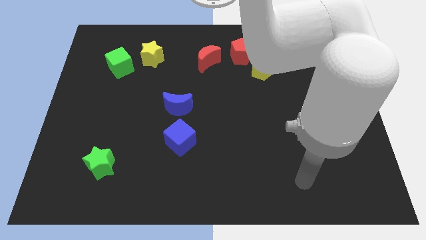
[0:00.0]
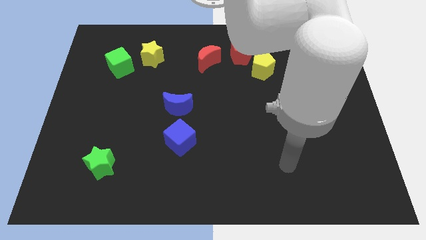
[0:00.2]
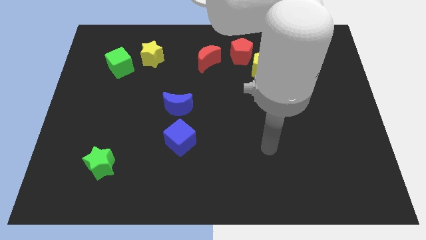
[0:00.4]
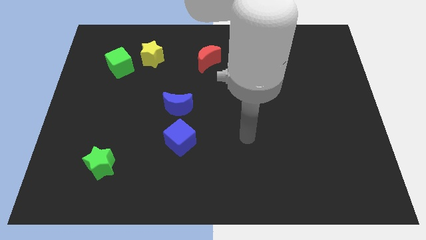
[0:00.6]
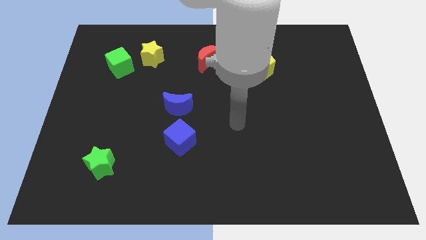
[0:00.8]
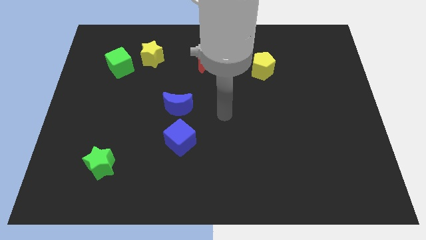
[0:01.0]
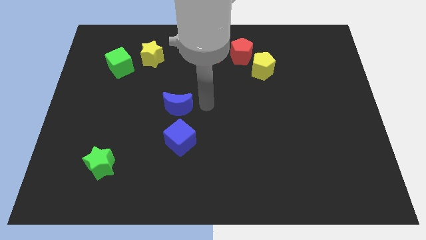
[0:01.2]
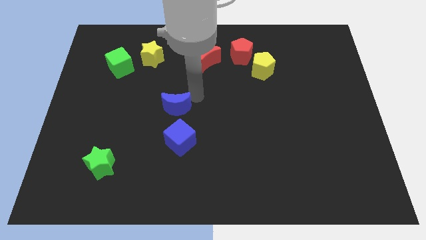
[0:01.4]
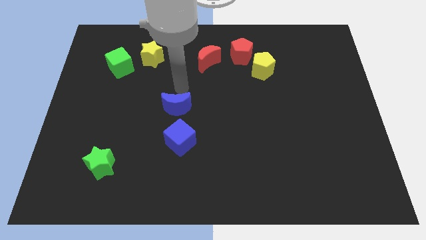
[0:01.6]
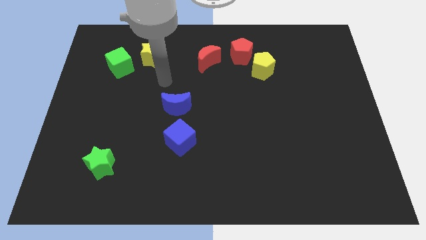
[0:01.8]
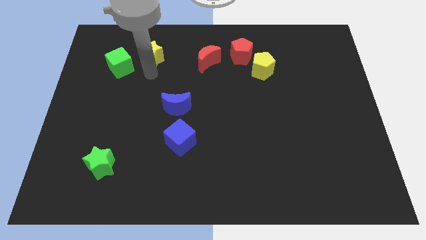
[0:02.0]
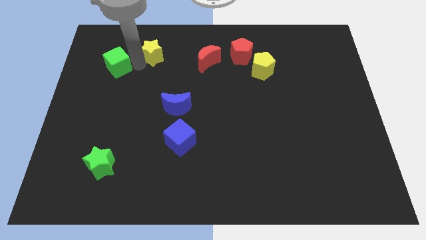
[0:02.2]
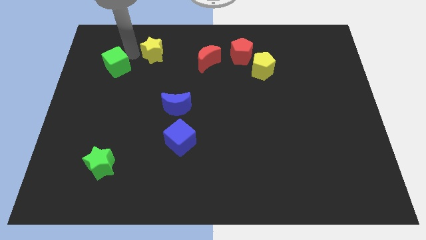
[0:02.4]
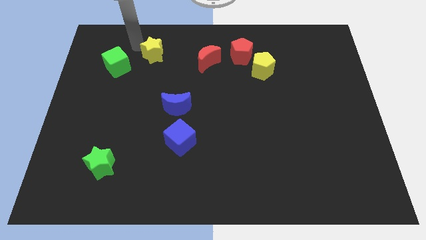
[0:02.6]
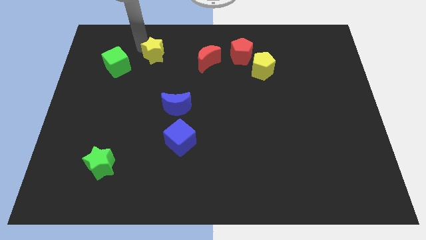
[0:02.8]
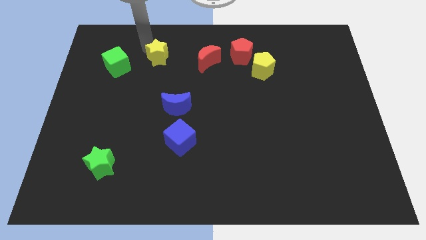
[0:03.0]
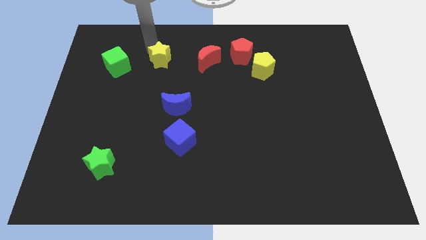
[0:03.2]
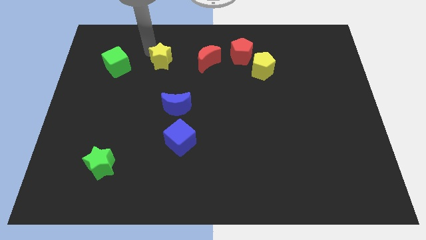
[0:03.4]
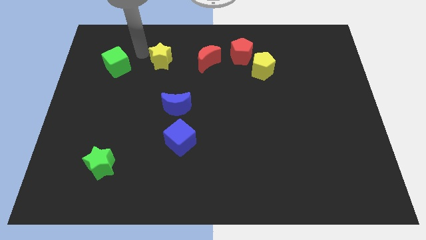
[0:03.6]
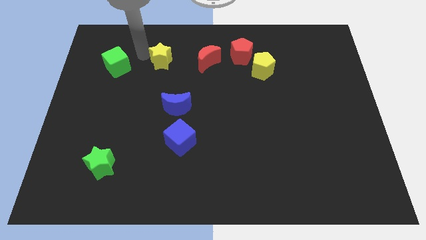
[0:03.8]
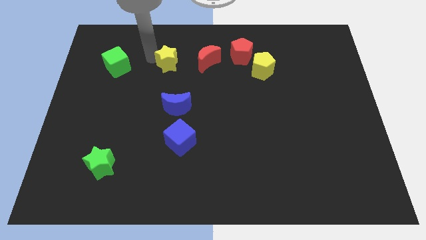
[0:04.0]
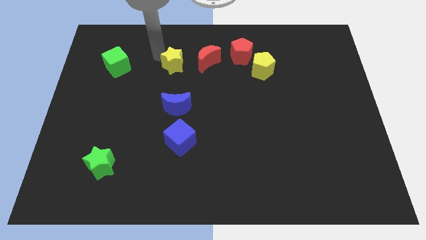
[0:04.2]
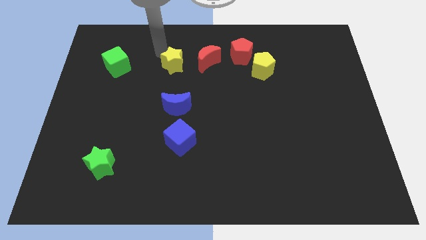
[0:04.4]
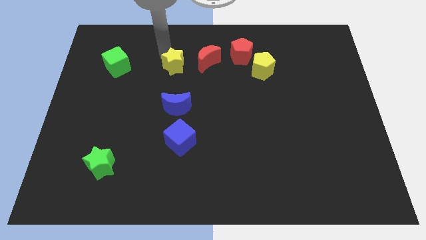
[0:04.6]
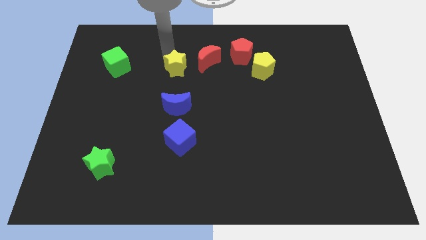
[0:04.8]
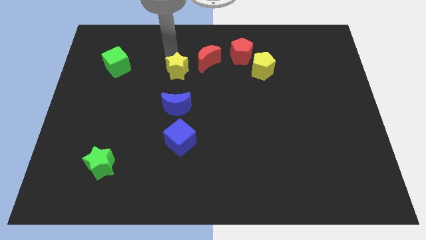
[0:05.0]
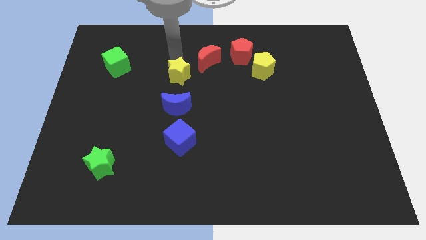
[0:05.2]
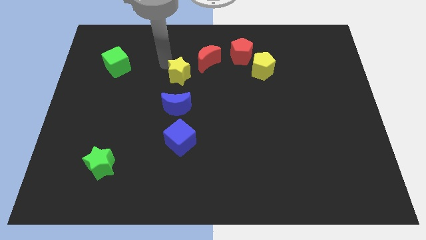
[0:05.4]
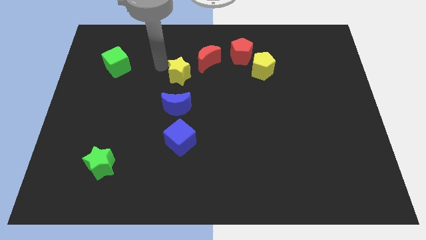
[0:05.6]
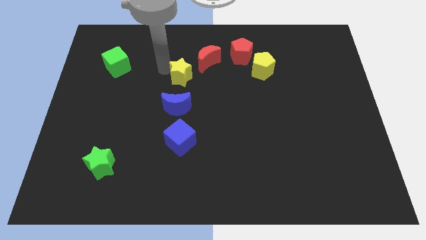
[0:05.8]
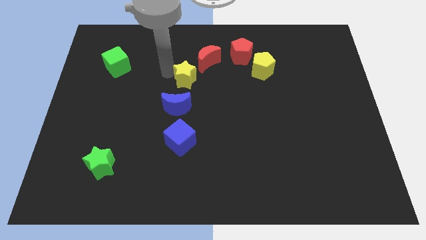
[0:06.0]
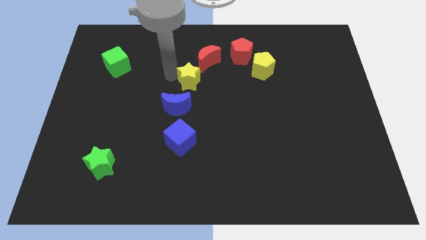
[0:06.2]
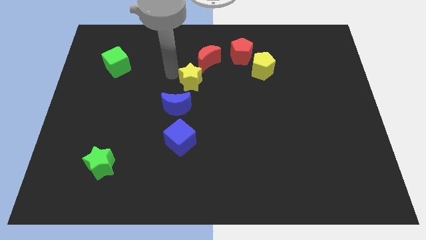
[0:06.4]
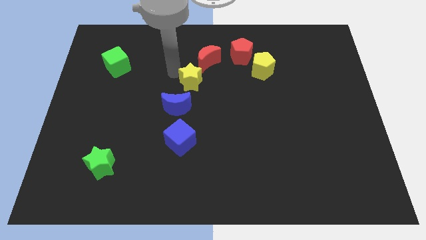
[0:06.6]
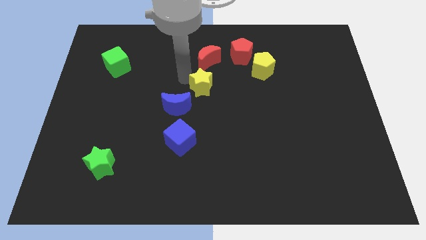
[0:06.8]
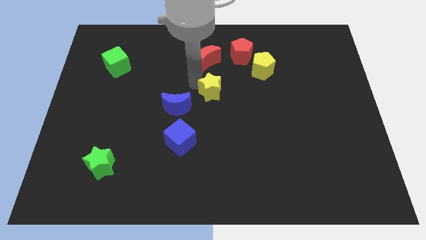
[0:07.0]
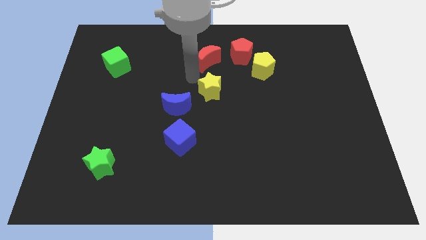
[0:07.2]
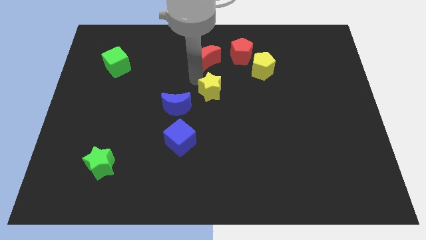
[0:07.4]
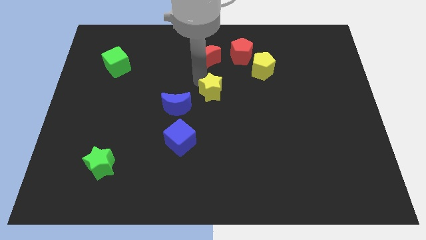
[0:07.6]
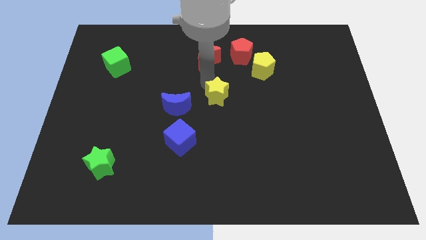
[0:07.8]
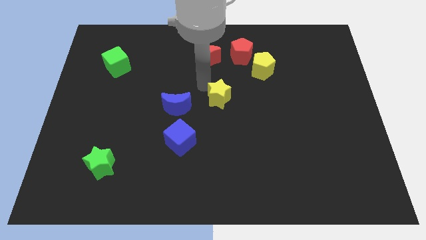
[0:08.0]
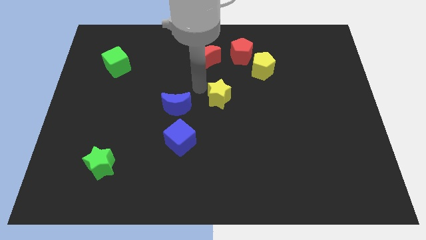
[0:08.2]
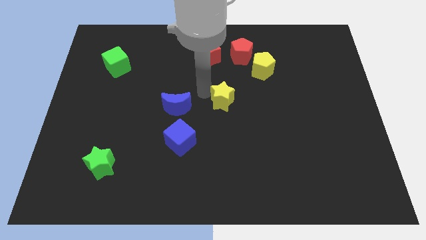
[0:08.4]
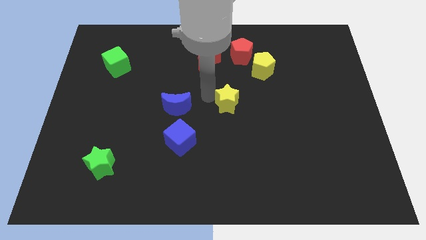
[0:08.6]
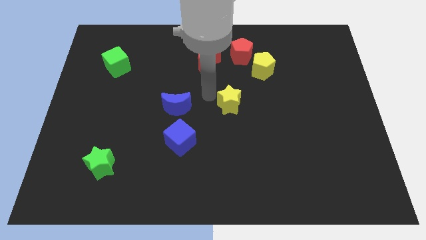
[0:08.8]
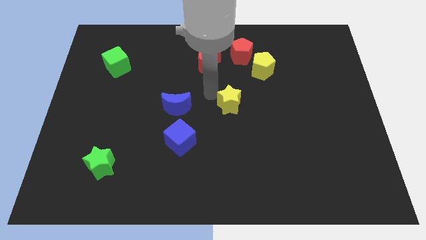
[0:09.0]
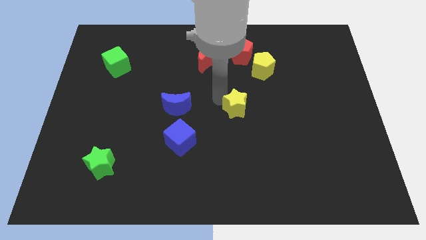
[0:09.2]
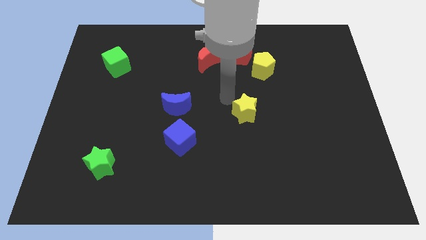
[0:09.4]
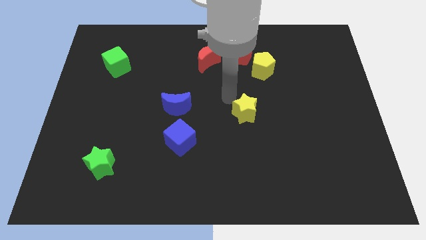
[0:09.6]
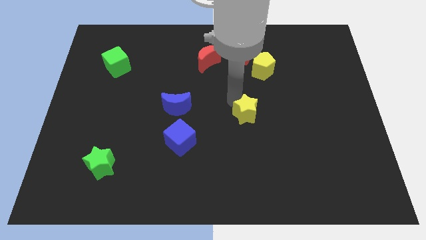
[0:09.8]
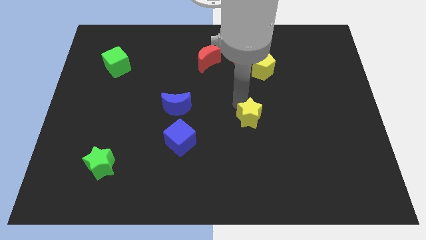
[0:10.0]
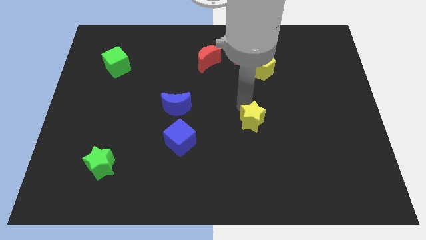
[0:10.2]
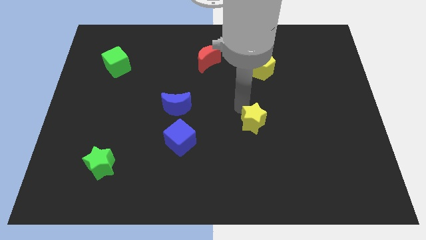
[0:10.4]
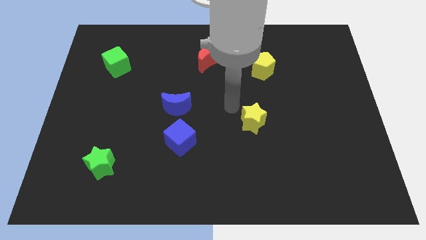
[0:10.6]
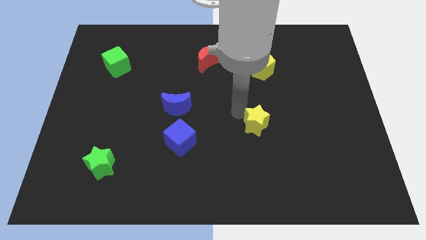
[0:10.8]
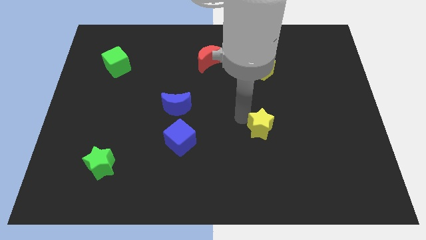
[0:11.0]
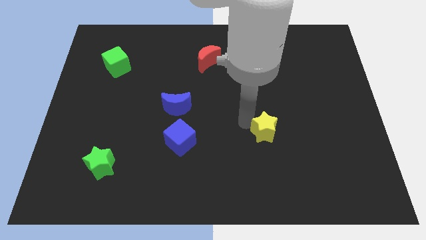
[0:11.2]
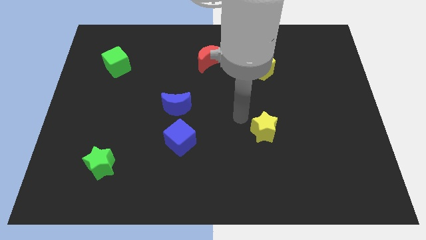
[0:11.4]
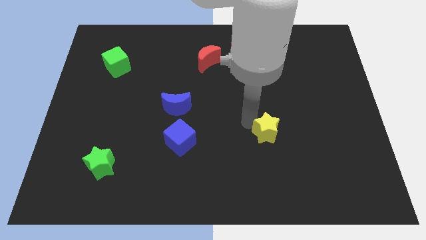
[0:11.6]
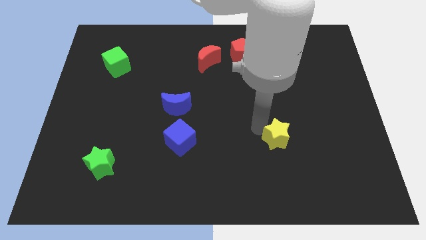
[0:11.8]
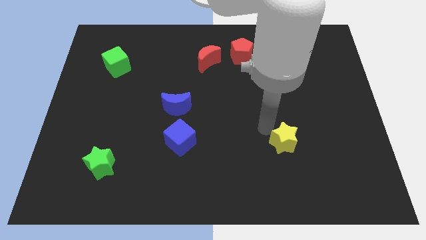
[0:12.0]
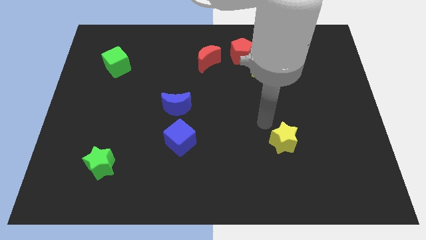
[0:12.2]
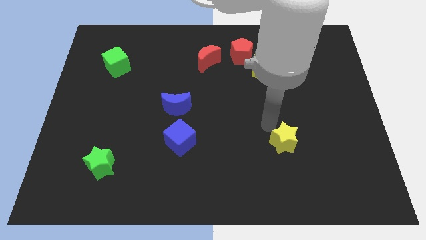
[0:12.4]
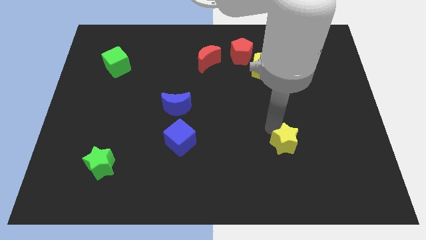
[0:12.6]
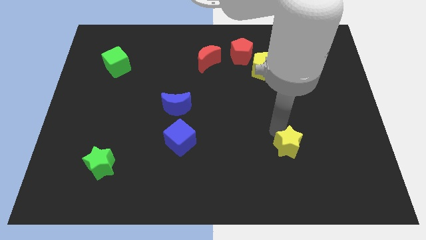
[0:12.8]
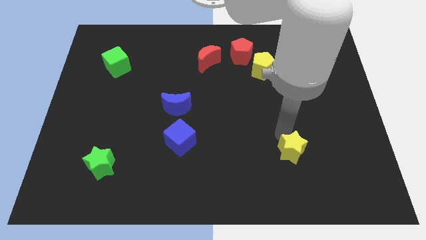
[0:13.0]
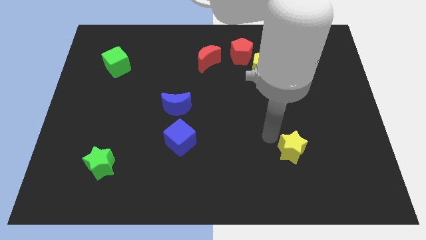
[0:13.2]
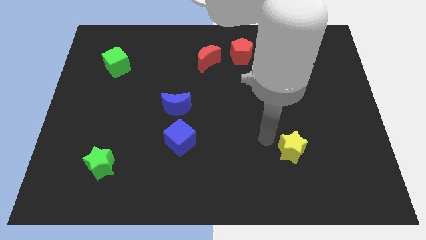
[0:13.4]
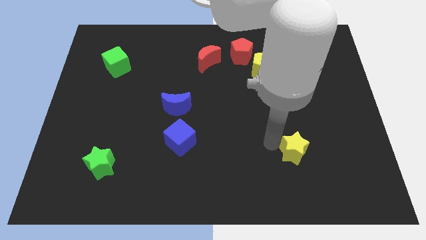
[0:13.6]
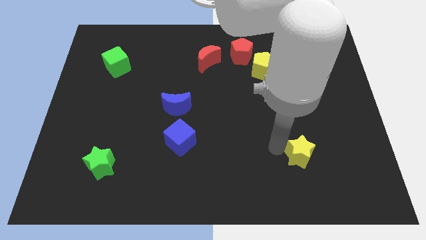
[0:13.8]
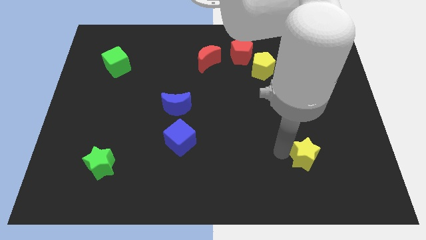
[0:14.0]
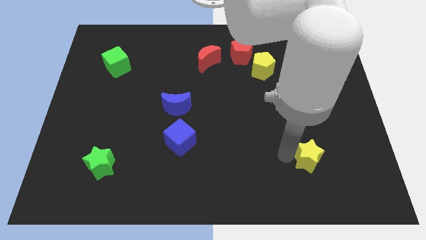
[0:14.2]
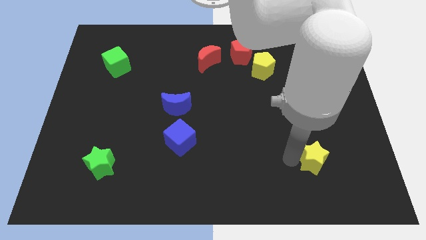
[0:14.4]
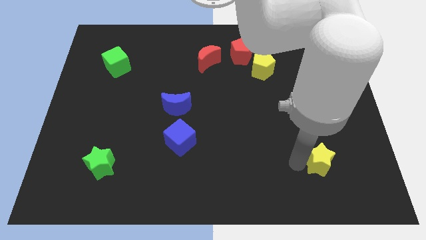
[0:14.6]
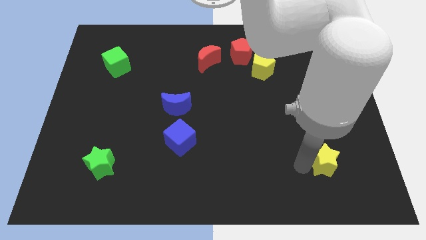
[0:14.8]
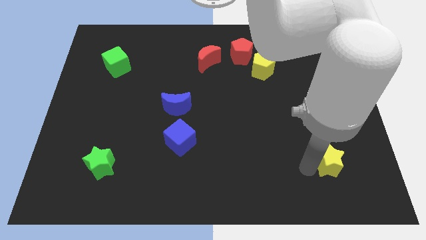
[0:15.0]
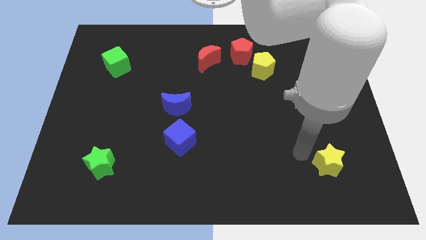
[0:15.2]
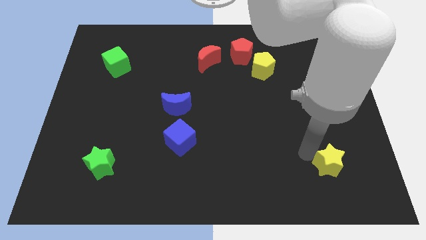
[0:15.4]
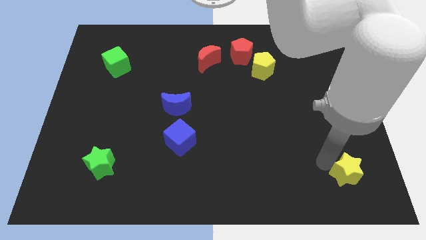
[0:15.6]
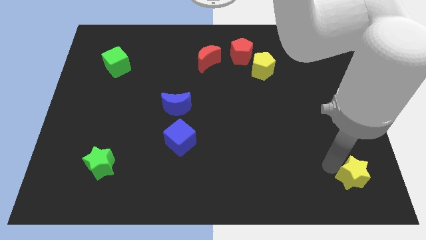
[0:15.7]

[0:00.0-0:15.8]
move the yellow star to the bottom right corner
